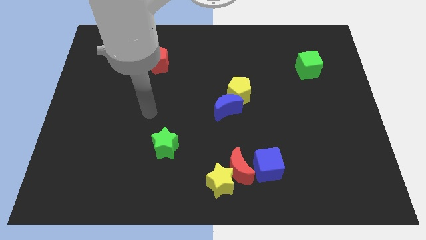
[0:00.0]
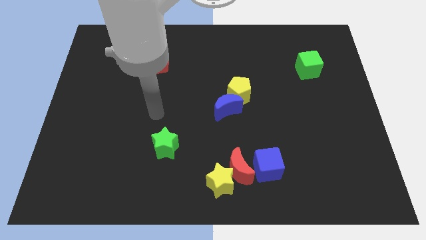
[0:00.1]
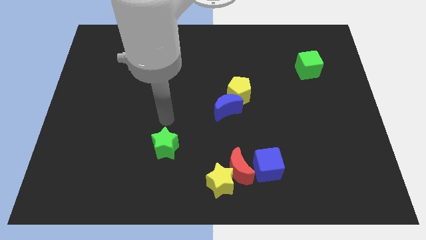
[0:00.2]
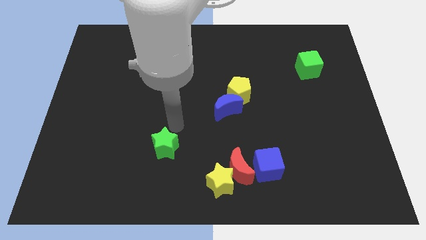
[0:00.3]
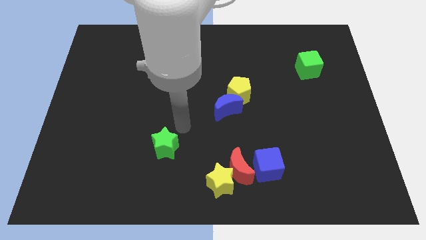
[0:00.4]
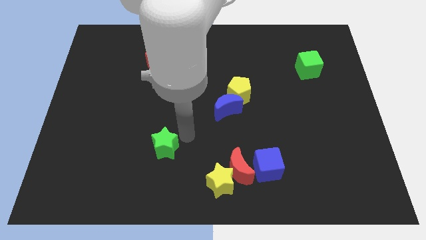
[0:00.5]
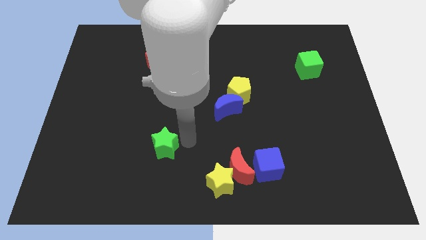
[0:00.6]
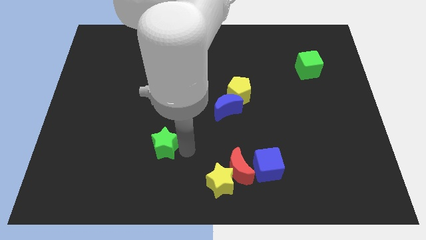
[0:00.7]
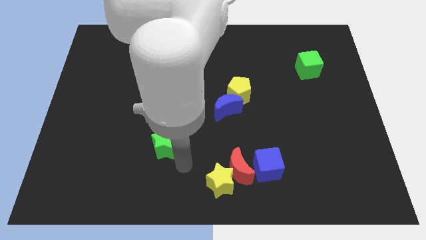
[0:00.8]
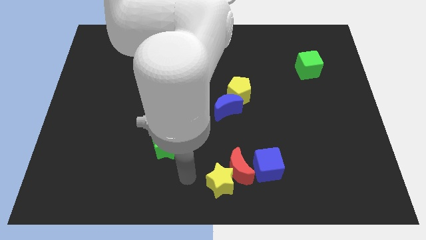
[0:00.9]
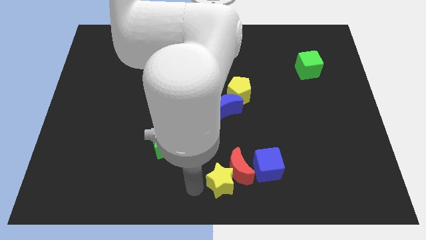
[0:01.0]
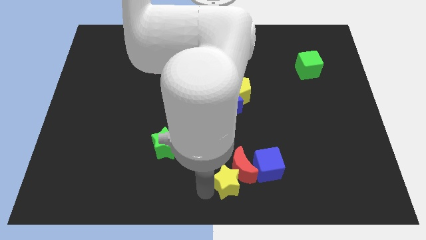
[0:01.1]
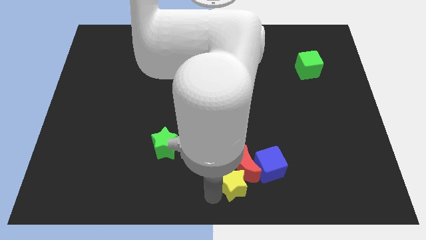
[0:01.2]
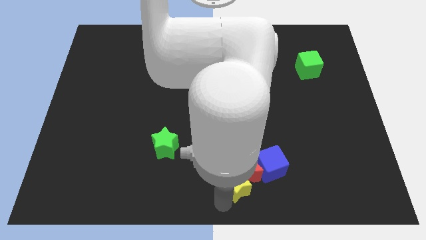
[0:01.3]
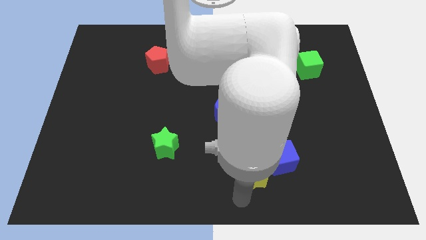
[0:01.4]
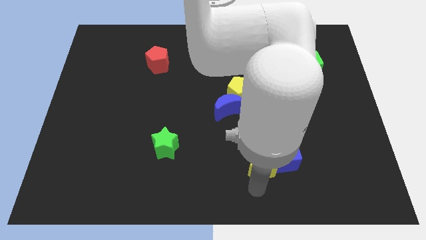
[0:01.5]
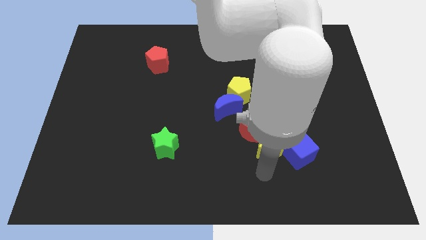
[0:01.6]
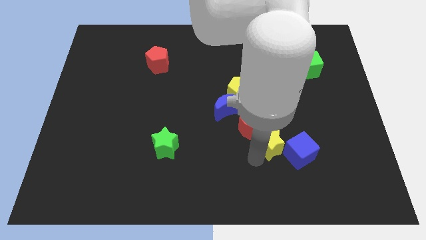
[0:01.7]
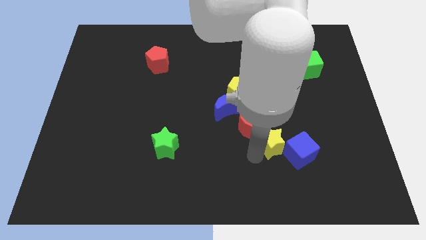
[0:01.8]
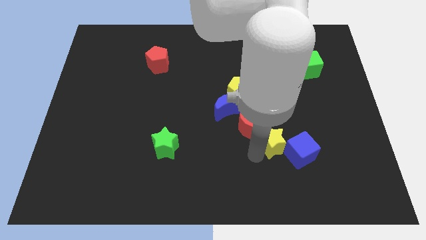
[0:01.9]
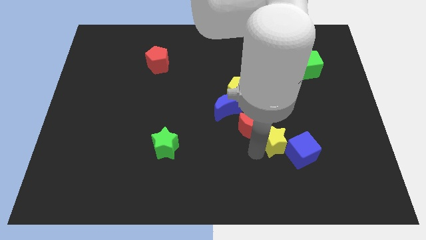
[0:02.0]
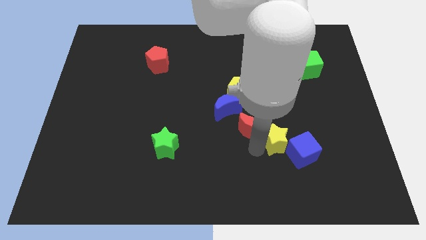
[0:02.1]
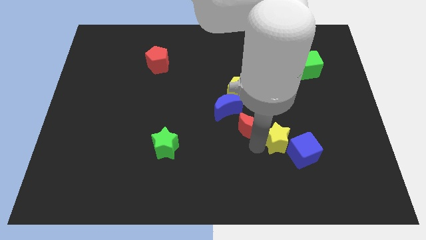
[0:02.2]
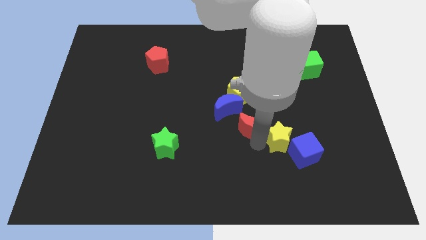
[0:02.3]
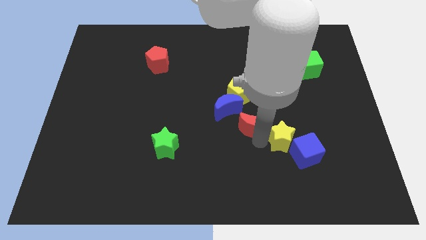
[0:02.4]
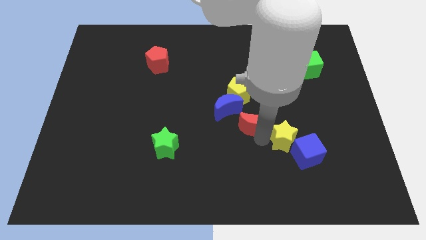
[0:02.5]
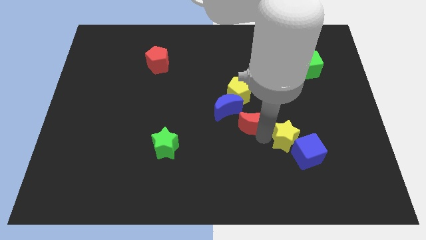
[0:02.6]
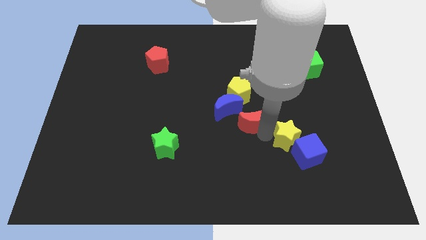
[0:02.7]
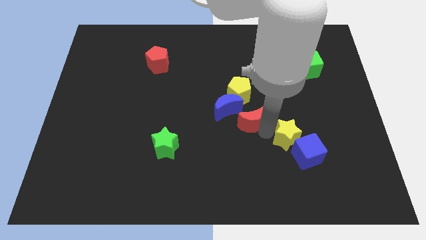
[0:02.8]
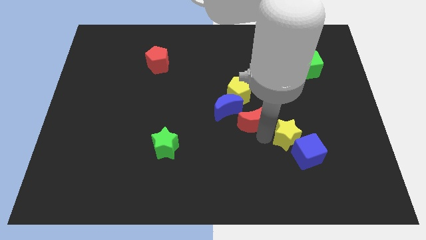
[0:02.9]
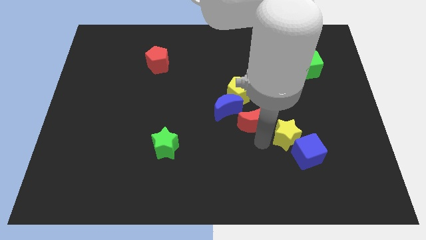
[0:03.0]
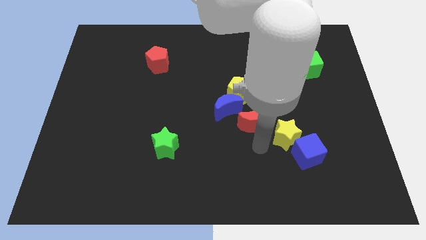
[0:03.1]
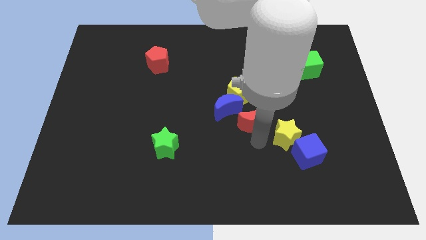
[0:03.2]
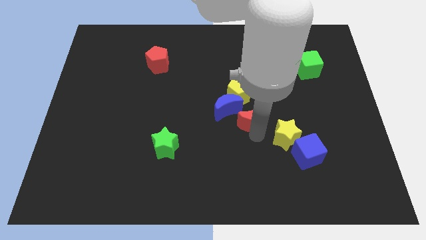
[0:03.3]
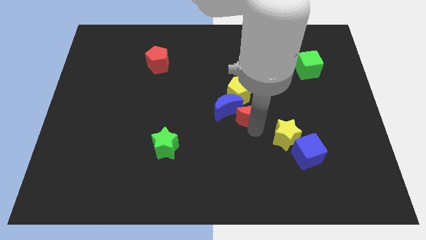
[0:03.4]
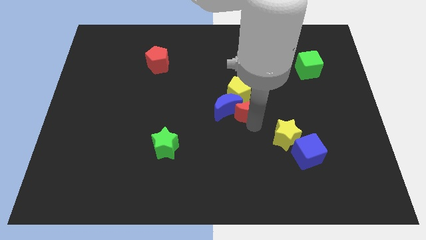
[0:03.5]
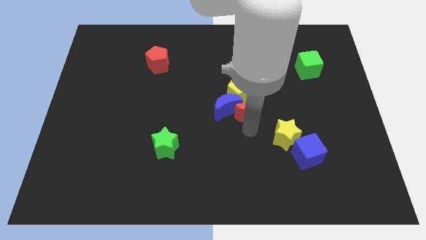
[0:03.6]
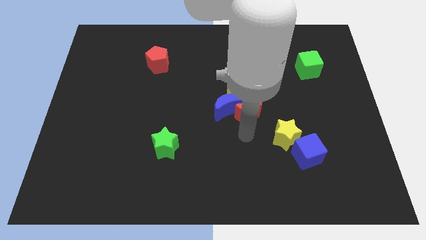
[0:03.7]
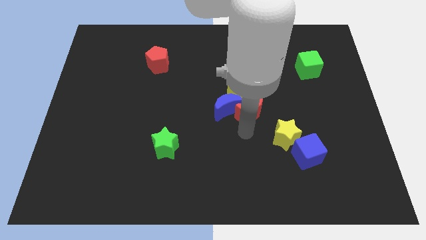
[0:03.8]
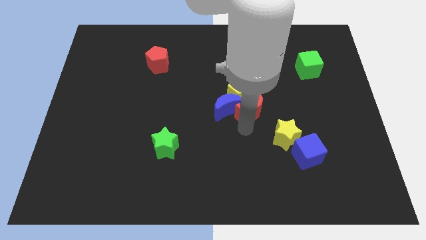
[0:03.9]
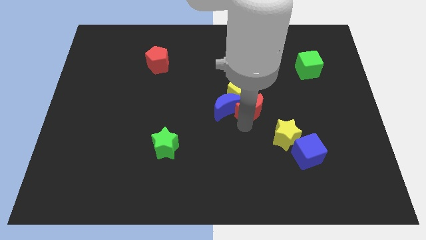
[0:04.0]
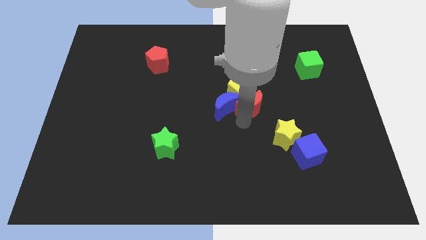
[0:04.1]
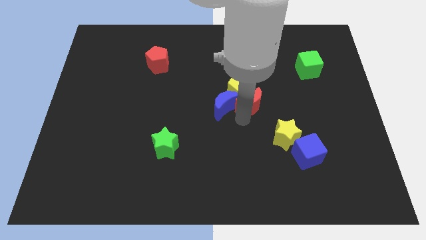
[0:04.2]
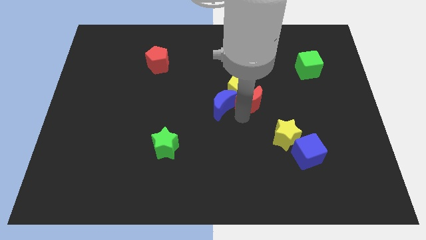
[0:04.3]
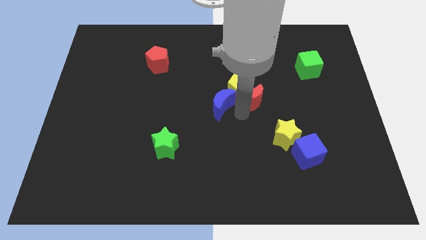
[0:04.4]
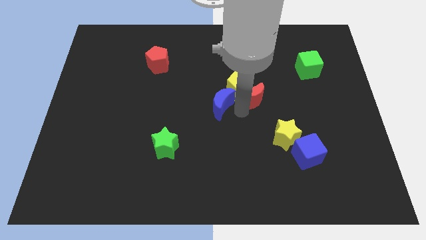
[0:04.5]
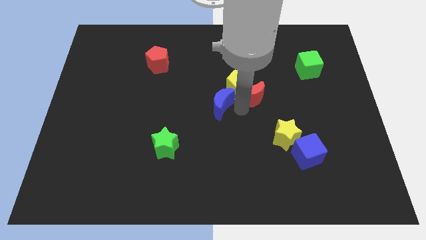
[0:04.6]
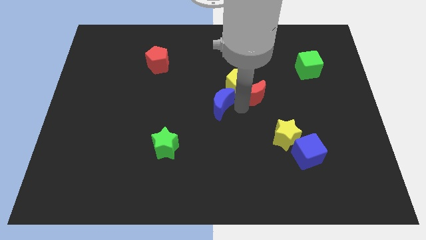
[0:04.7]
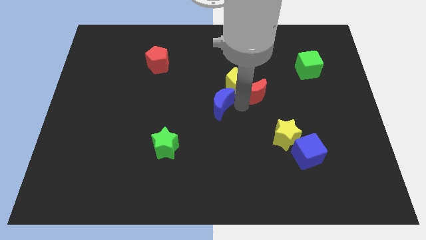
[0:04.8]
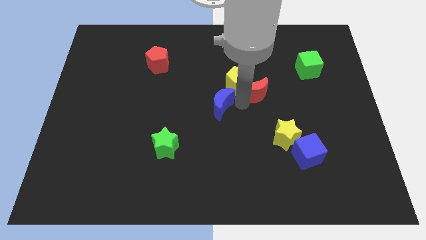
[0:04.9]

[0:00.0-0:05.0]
move the red moon up

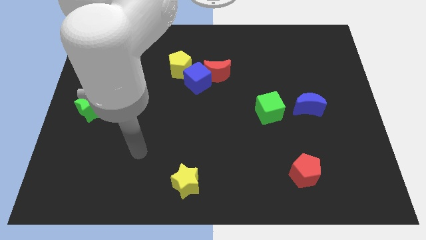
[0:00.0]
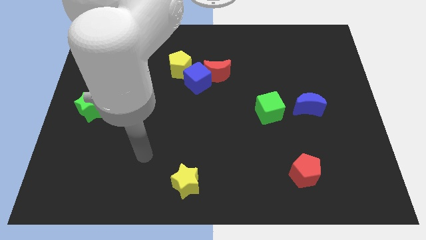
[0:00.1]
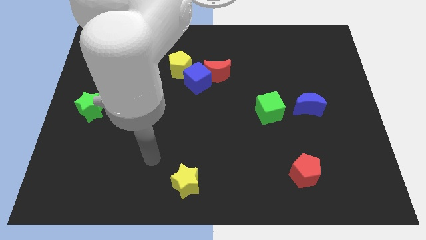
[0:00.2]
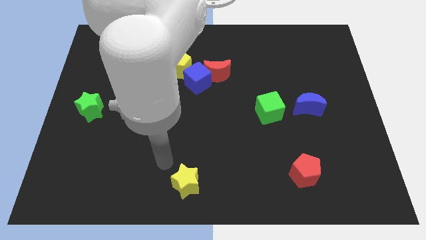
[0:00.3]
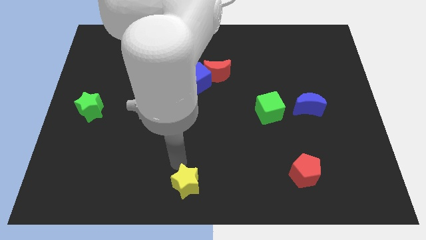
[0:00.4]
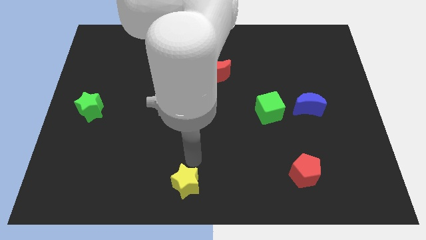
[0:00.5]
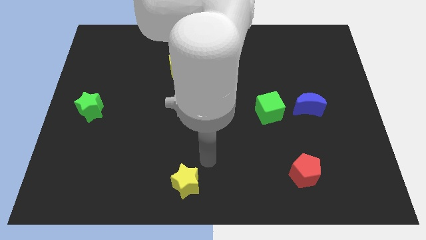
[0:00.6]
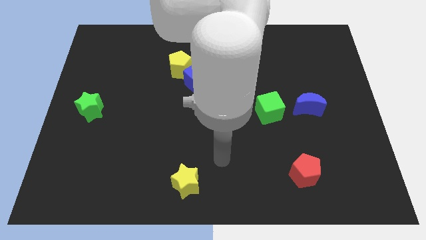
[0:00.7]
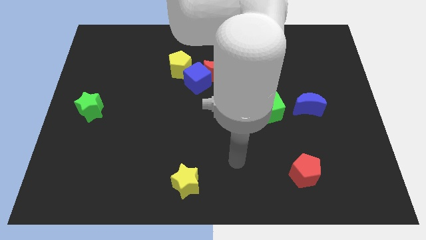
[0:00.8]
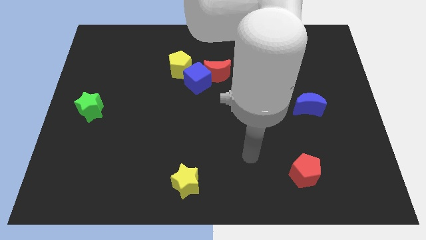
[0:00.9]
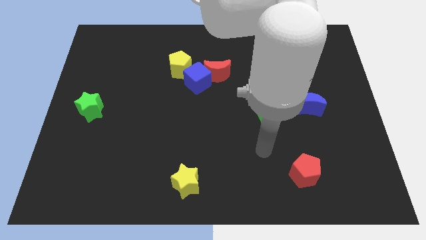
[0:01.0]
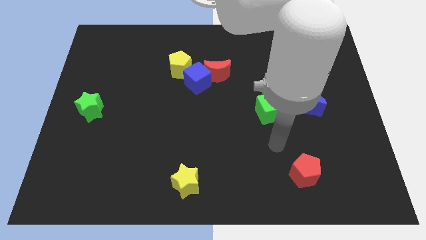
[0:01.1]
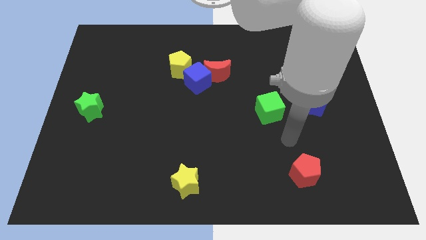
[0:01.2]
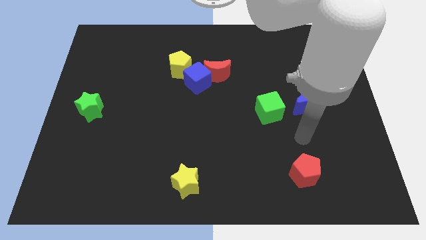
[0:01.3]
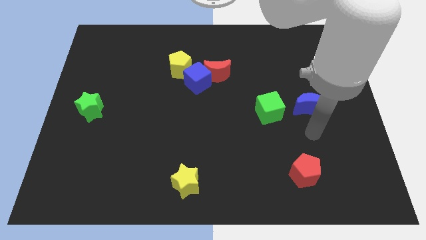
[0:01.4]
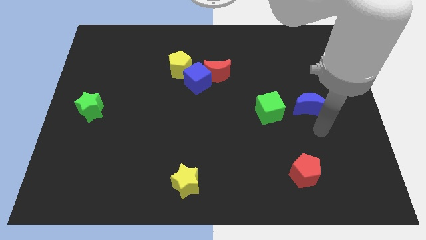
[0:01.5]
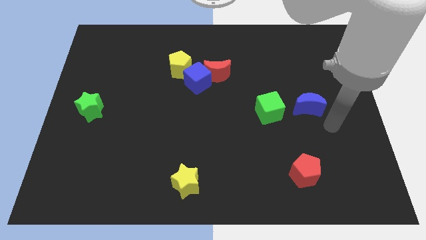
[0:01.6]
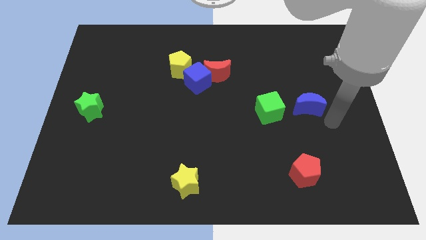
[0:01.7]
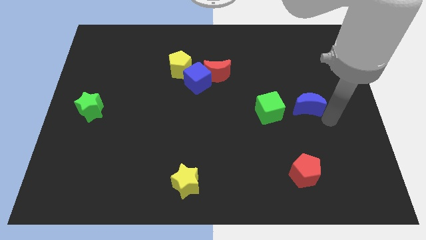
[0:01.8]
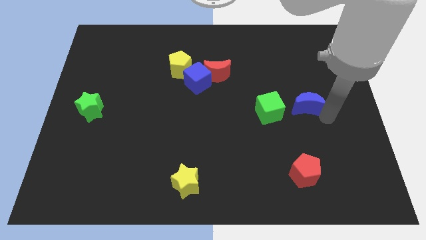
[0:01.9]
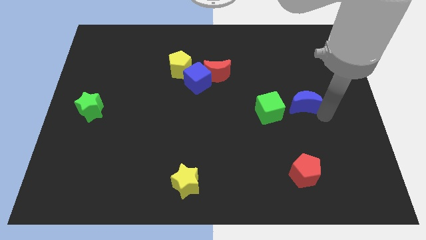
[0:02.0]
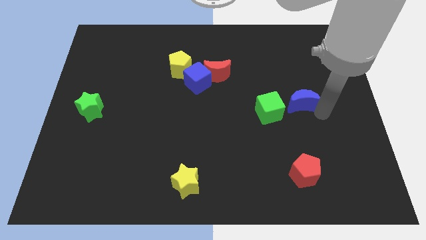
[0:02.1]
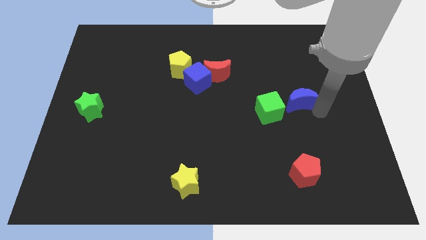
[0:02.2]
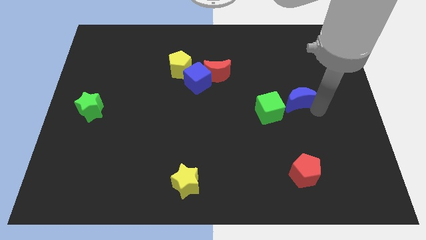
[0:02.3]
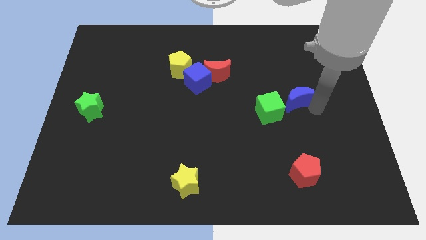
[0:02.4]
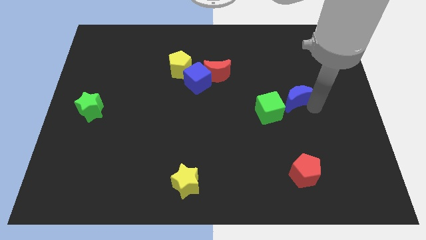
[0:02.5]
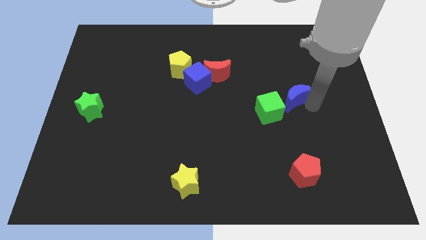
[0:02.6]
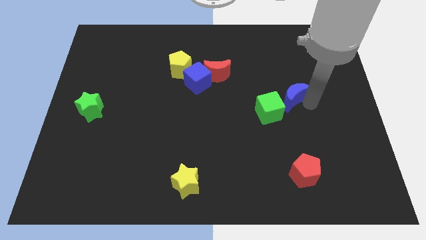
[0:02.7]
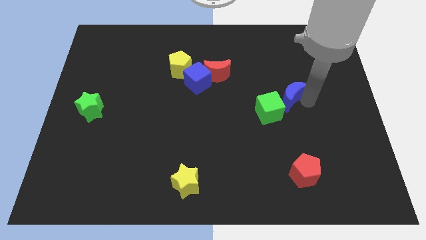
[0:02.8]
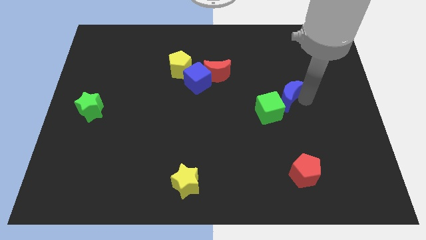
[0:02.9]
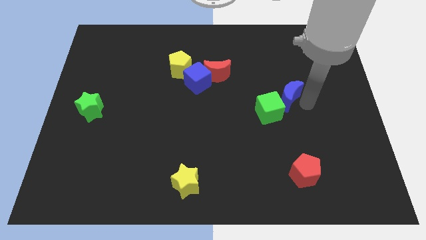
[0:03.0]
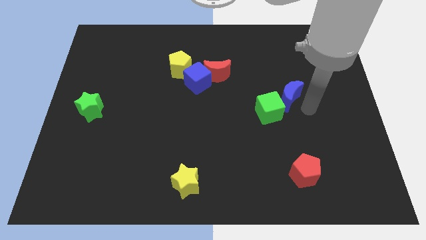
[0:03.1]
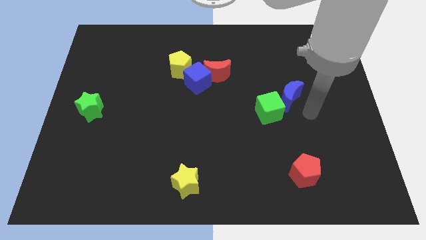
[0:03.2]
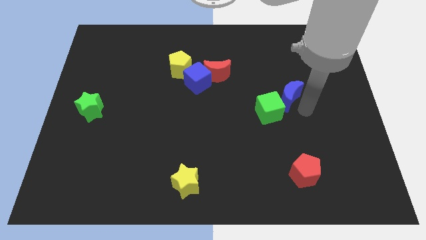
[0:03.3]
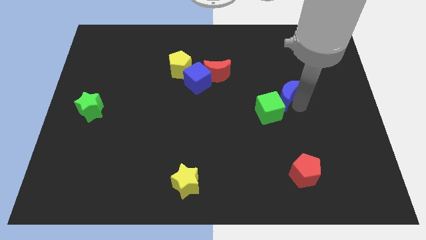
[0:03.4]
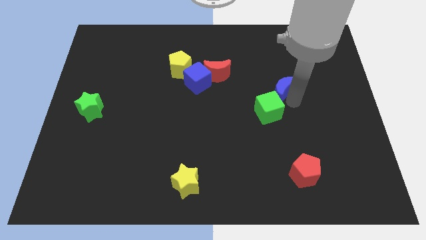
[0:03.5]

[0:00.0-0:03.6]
slide the blue moon somewhat up and left
